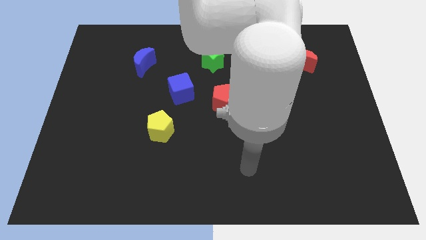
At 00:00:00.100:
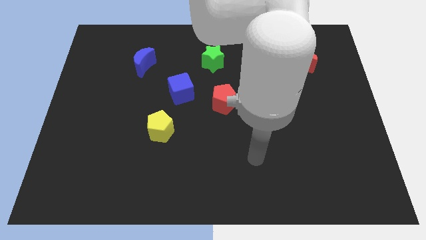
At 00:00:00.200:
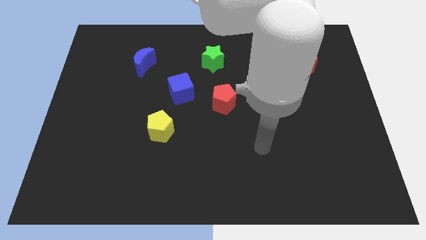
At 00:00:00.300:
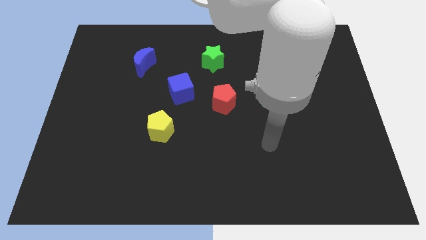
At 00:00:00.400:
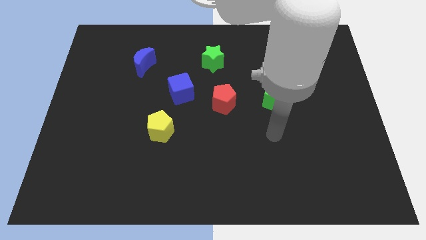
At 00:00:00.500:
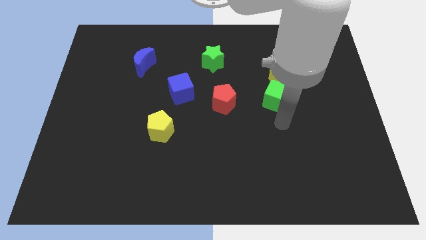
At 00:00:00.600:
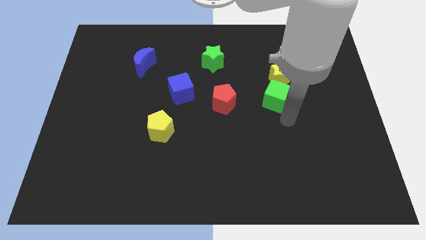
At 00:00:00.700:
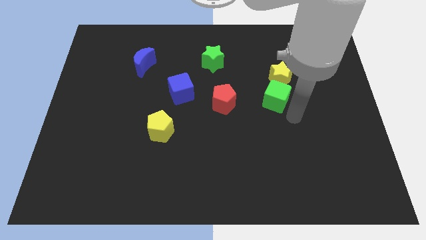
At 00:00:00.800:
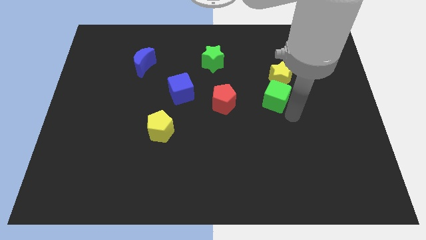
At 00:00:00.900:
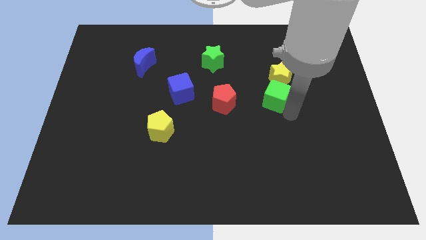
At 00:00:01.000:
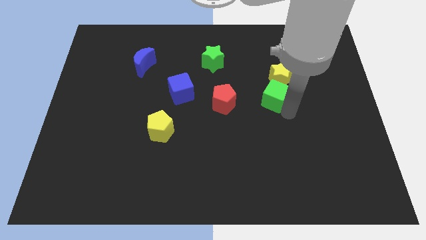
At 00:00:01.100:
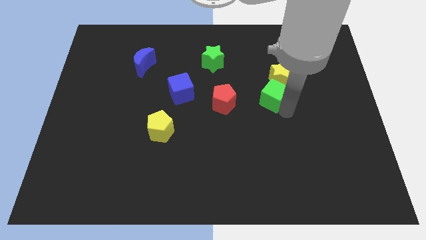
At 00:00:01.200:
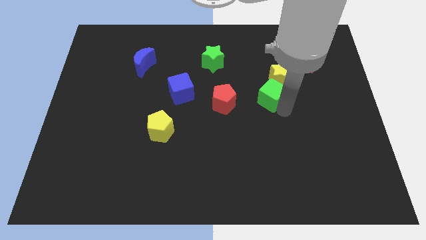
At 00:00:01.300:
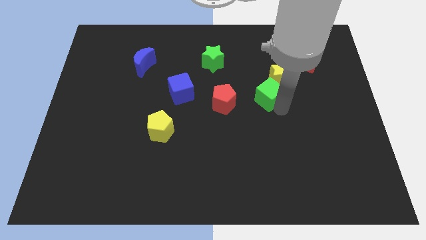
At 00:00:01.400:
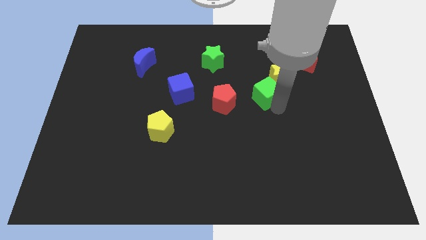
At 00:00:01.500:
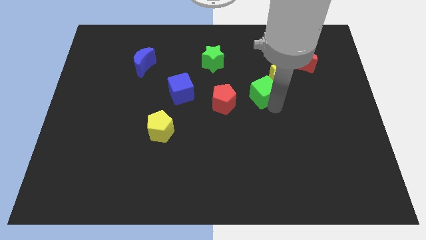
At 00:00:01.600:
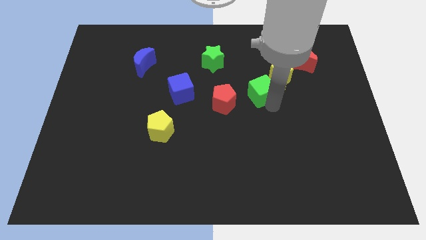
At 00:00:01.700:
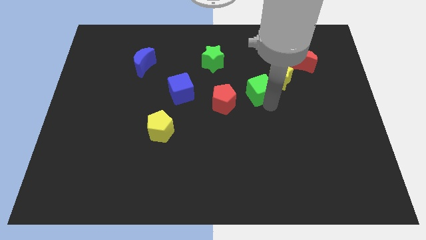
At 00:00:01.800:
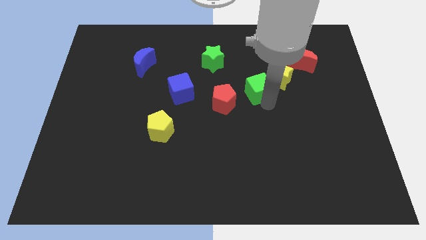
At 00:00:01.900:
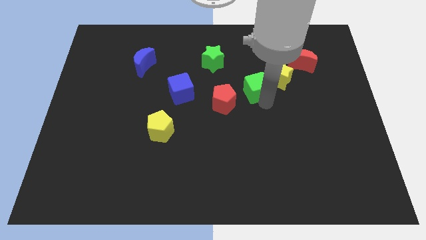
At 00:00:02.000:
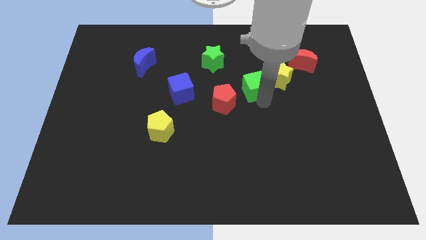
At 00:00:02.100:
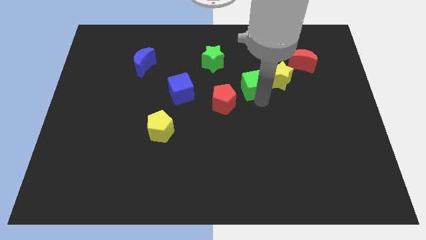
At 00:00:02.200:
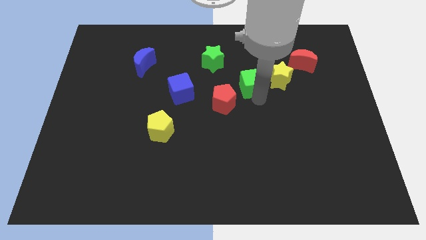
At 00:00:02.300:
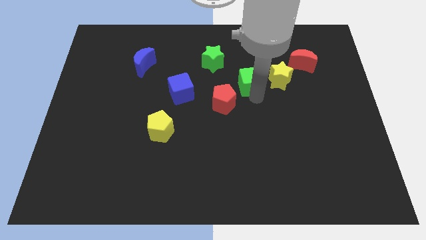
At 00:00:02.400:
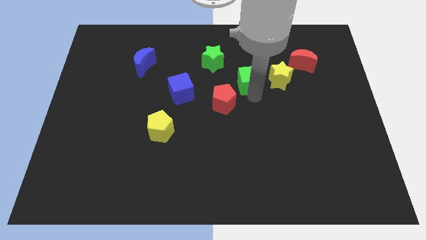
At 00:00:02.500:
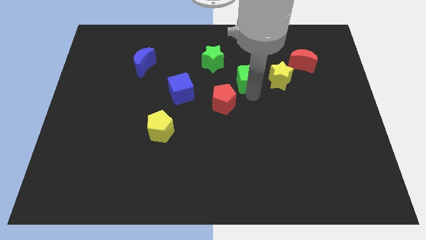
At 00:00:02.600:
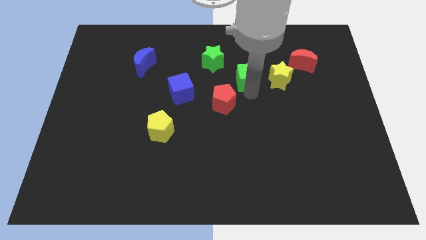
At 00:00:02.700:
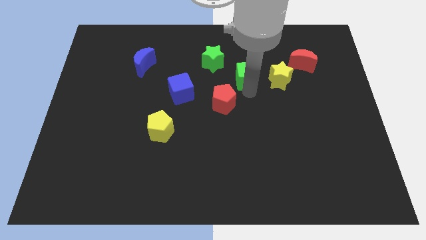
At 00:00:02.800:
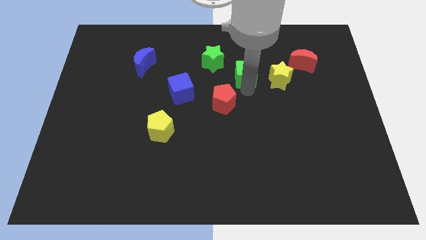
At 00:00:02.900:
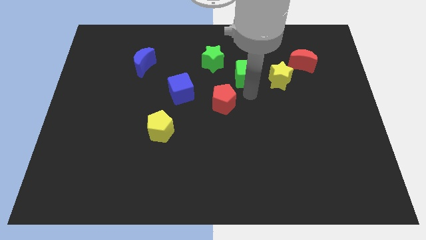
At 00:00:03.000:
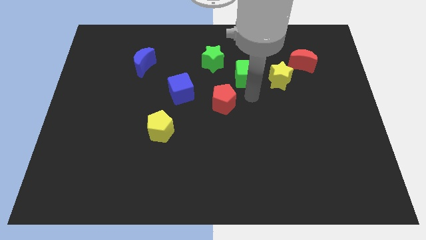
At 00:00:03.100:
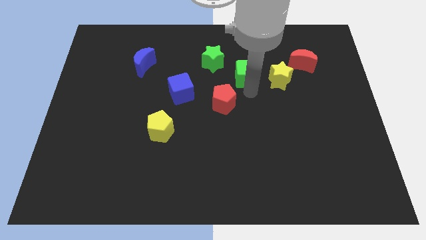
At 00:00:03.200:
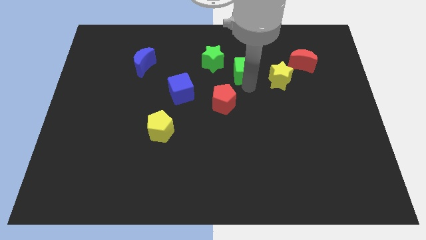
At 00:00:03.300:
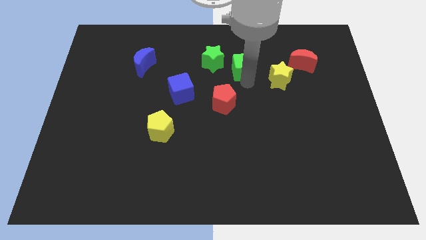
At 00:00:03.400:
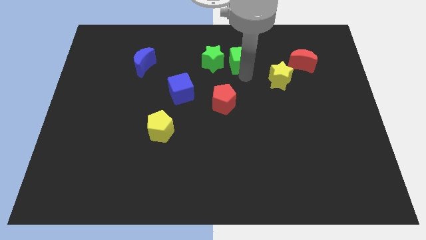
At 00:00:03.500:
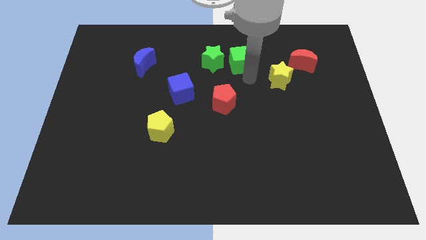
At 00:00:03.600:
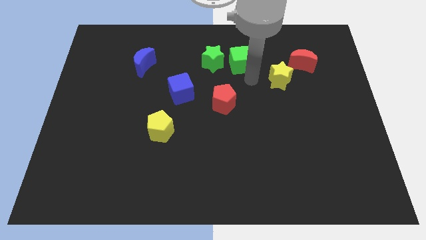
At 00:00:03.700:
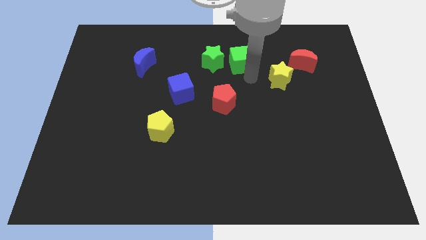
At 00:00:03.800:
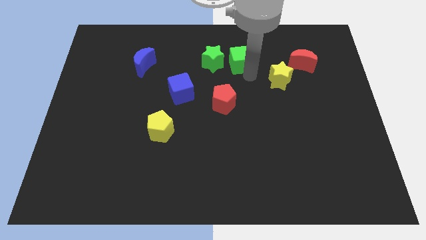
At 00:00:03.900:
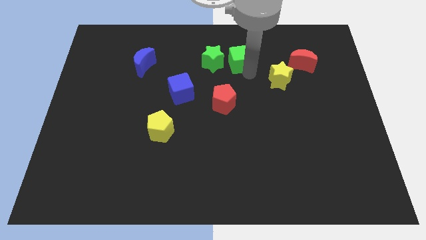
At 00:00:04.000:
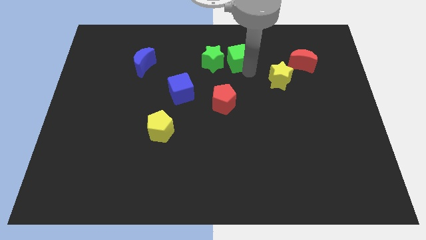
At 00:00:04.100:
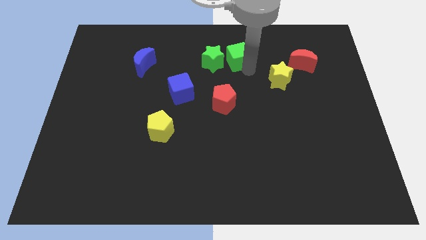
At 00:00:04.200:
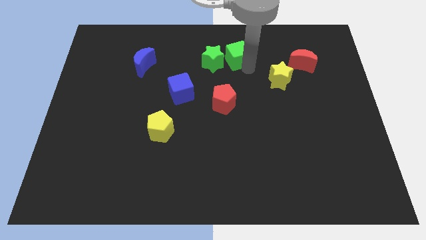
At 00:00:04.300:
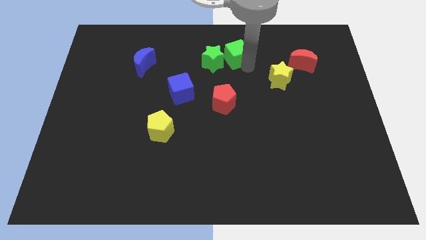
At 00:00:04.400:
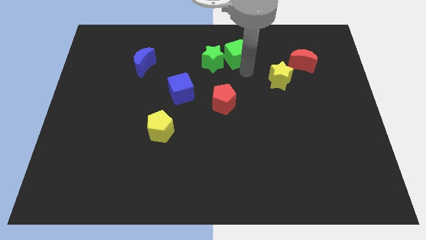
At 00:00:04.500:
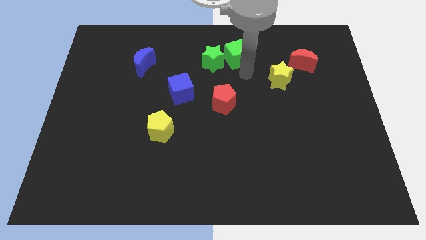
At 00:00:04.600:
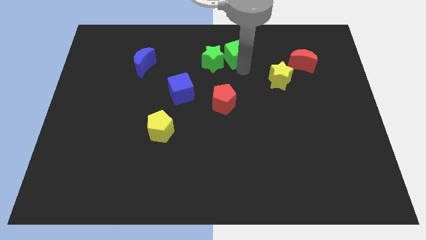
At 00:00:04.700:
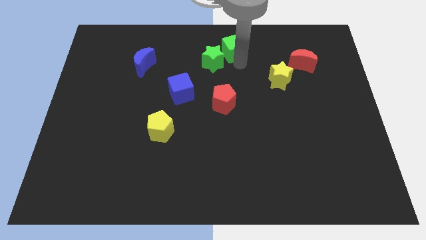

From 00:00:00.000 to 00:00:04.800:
slide the green cube to the top

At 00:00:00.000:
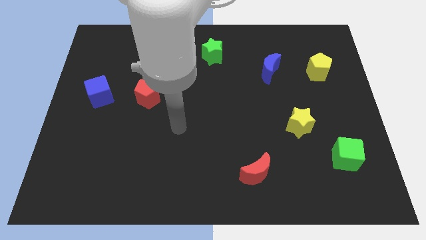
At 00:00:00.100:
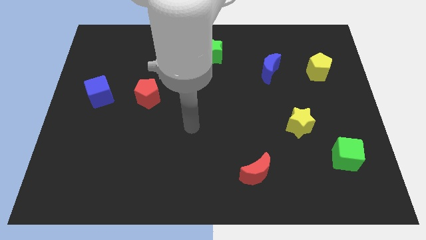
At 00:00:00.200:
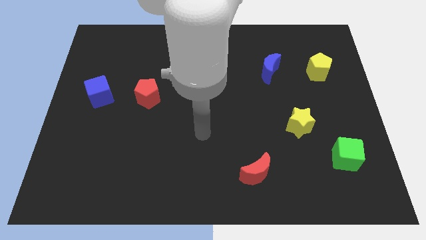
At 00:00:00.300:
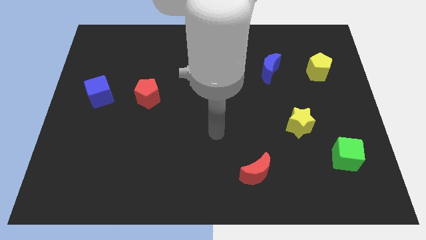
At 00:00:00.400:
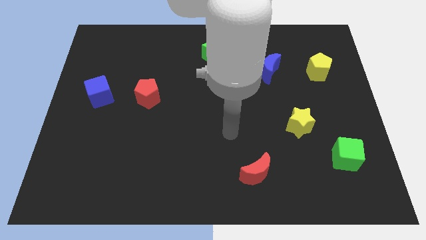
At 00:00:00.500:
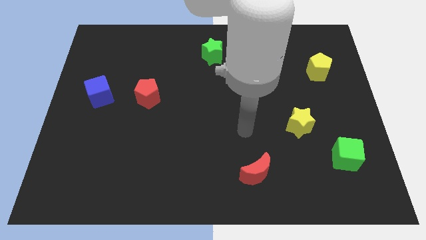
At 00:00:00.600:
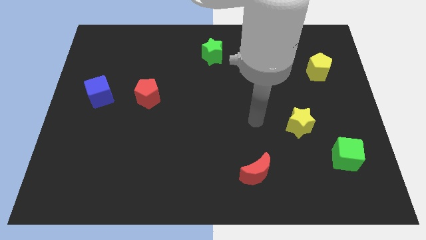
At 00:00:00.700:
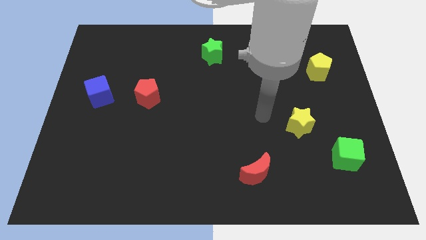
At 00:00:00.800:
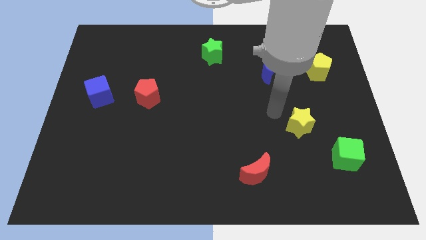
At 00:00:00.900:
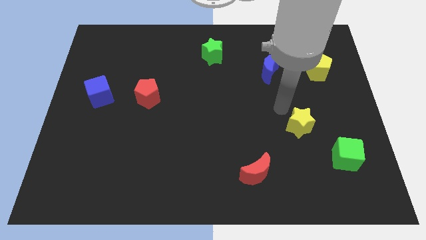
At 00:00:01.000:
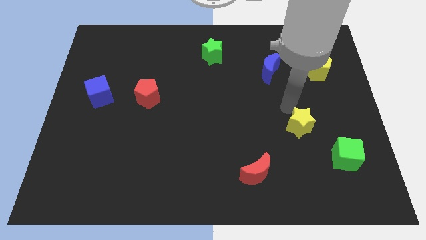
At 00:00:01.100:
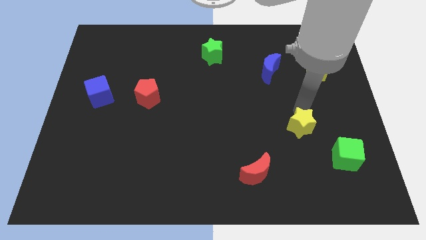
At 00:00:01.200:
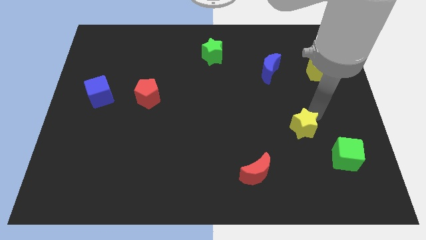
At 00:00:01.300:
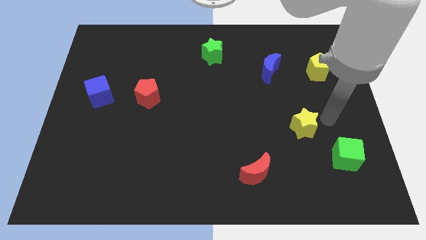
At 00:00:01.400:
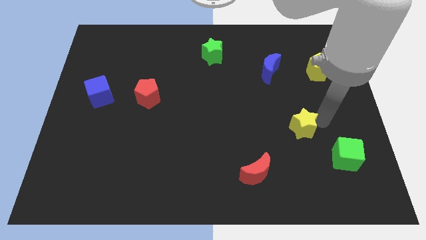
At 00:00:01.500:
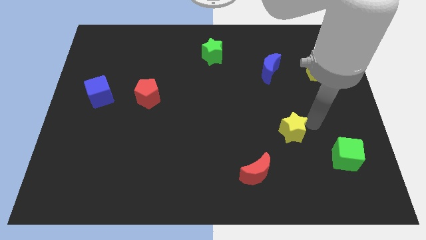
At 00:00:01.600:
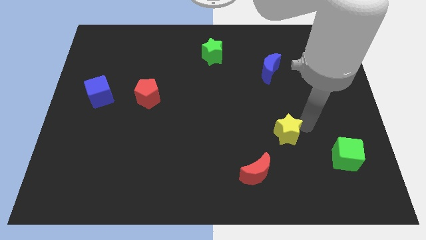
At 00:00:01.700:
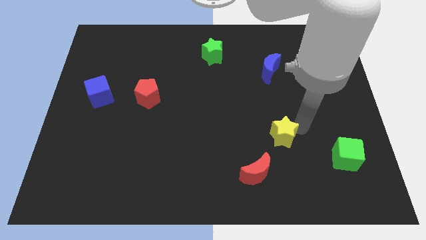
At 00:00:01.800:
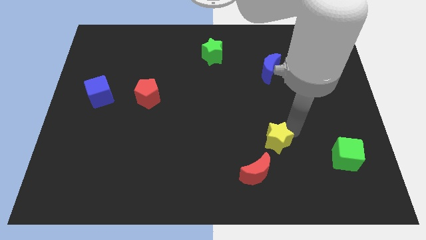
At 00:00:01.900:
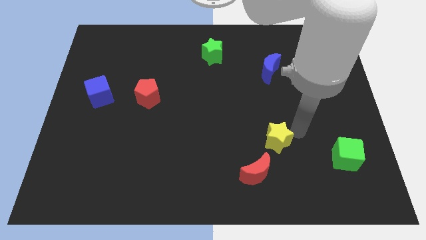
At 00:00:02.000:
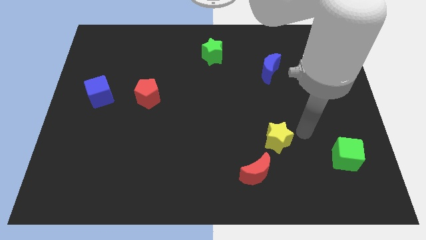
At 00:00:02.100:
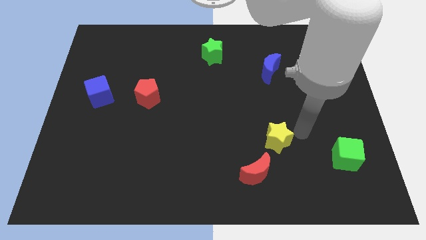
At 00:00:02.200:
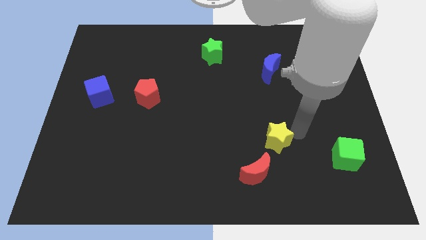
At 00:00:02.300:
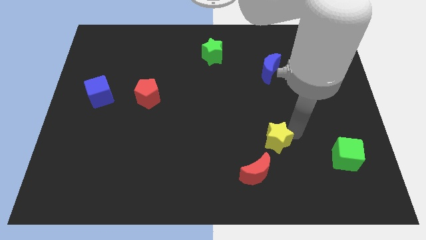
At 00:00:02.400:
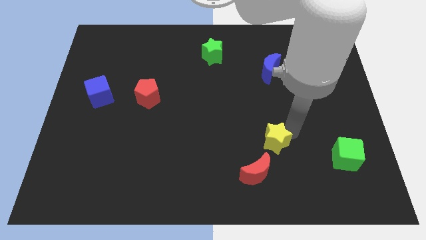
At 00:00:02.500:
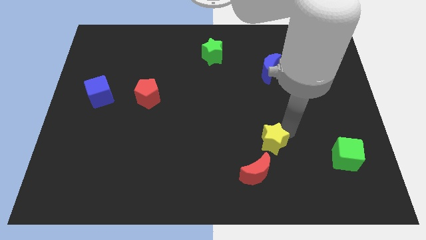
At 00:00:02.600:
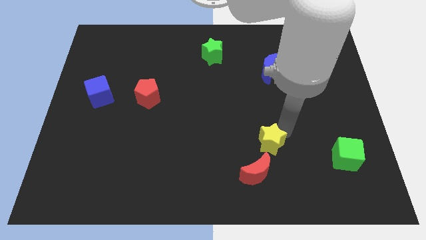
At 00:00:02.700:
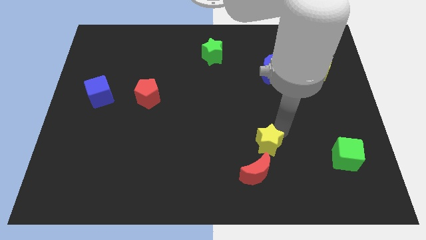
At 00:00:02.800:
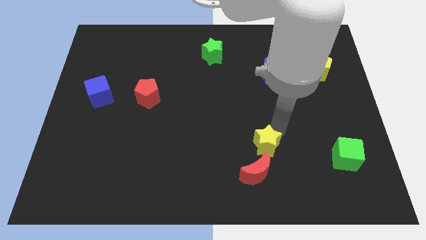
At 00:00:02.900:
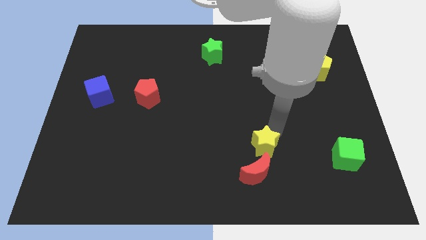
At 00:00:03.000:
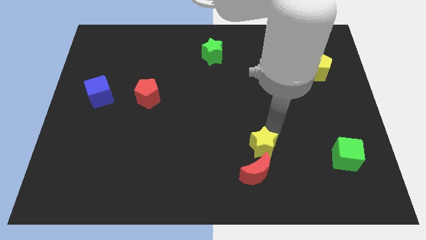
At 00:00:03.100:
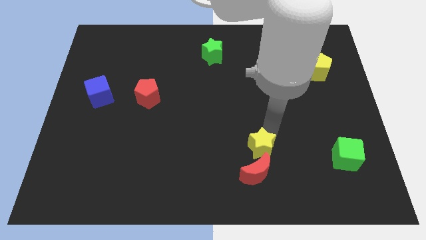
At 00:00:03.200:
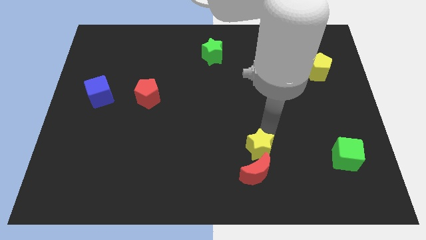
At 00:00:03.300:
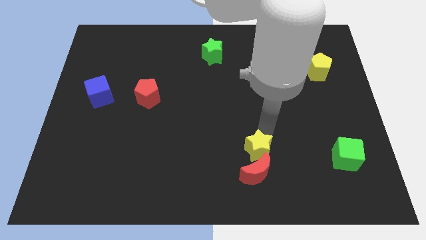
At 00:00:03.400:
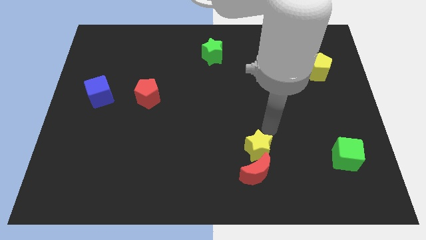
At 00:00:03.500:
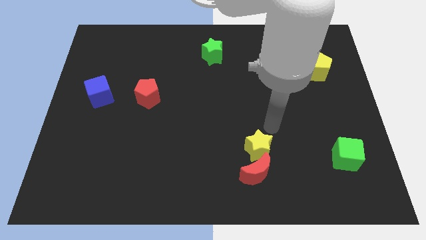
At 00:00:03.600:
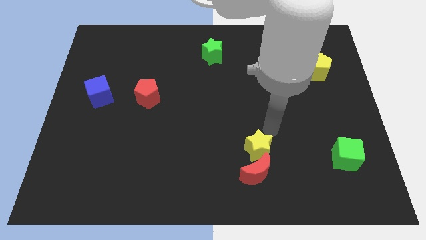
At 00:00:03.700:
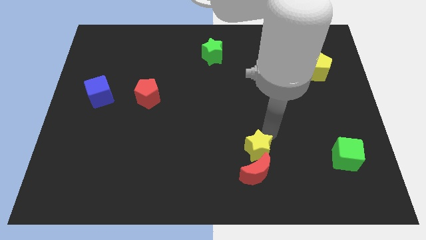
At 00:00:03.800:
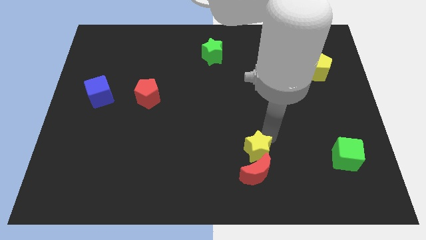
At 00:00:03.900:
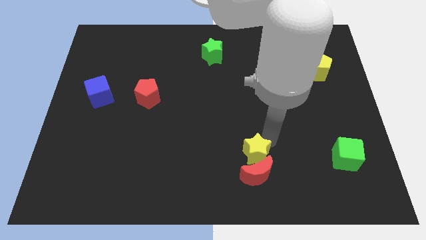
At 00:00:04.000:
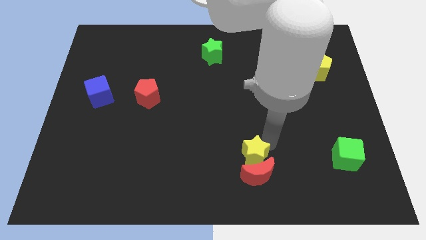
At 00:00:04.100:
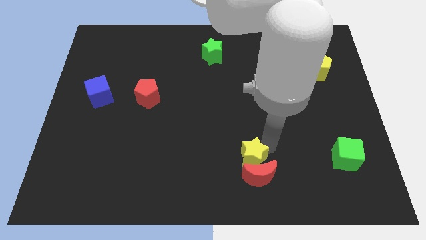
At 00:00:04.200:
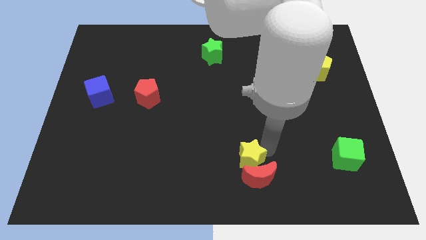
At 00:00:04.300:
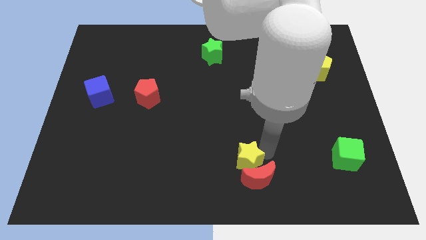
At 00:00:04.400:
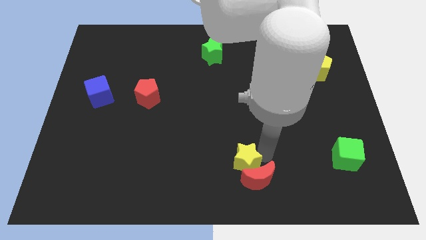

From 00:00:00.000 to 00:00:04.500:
put the yellow star to the bottom side
